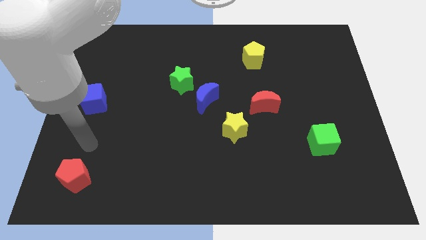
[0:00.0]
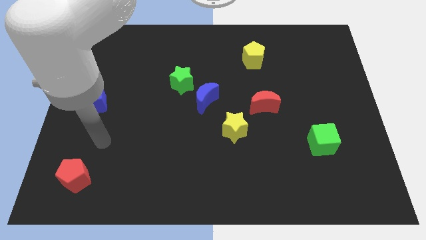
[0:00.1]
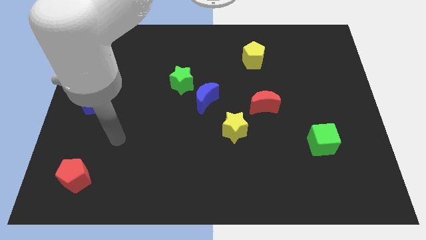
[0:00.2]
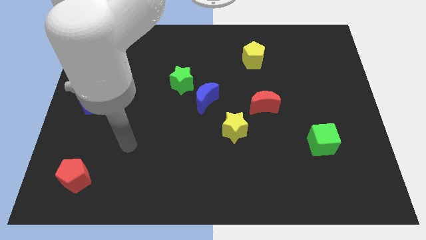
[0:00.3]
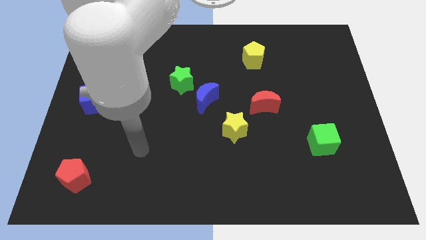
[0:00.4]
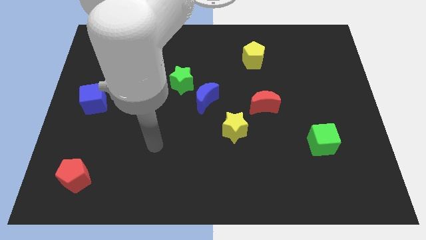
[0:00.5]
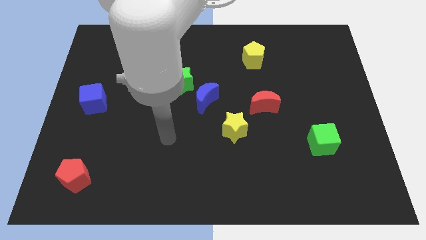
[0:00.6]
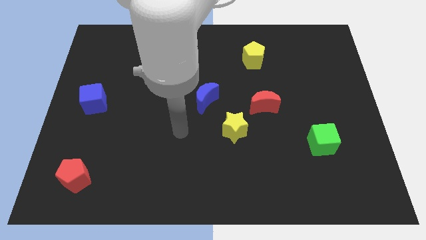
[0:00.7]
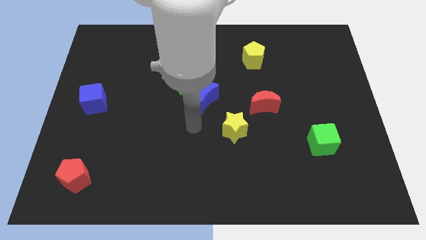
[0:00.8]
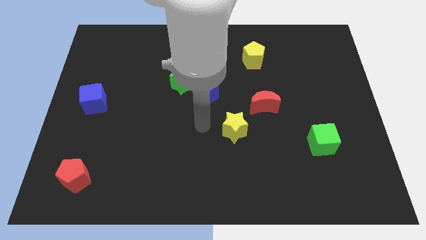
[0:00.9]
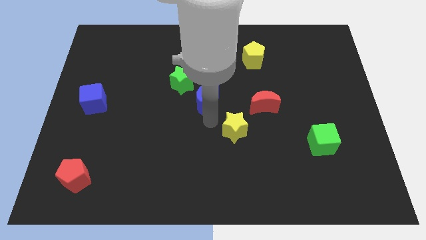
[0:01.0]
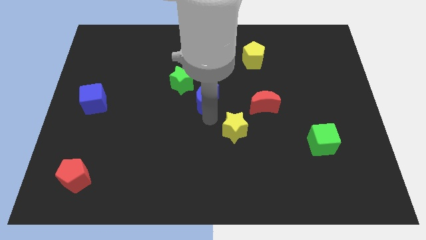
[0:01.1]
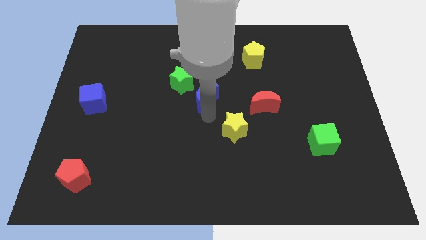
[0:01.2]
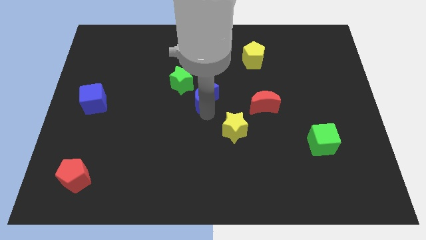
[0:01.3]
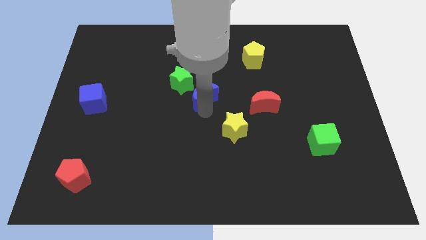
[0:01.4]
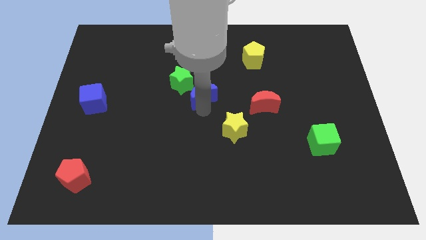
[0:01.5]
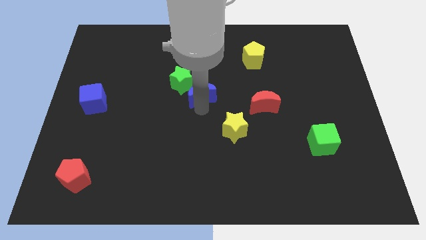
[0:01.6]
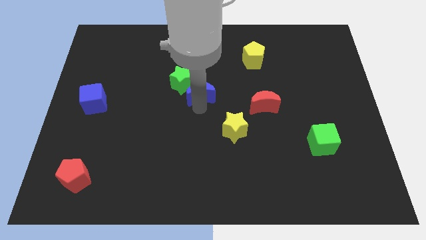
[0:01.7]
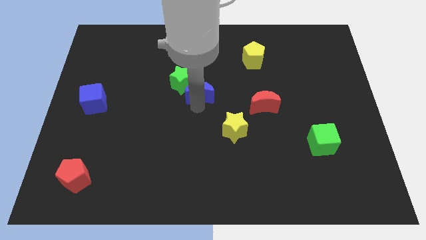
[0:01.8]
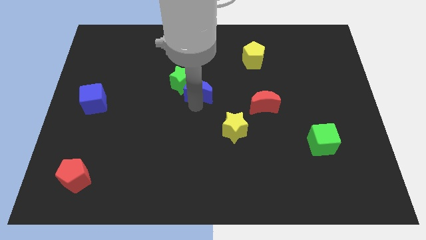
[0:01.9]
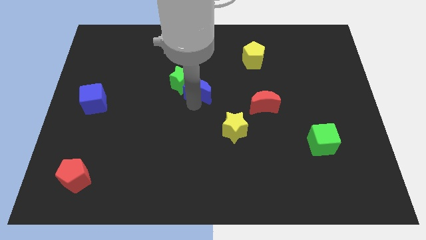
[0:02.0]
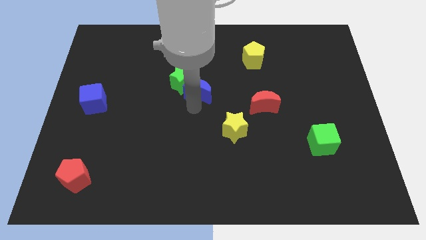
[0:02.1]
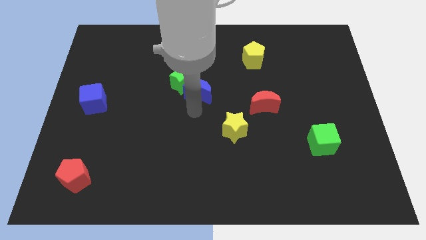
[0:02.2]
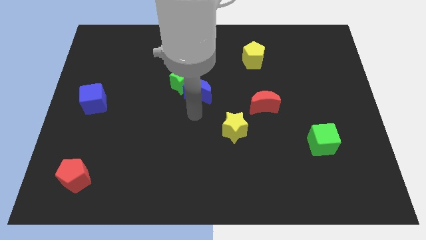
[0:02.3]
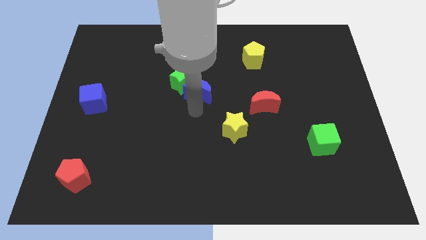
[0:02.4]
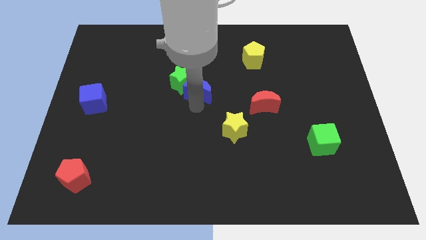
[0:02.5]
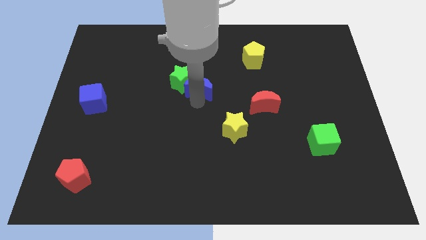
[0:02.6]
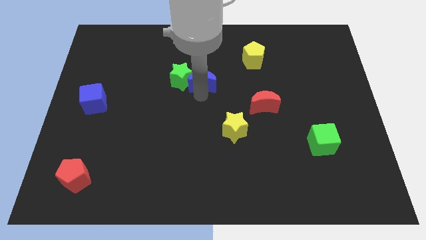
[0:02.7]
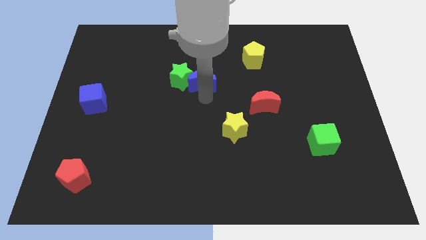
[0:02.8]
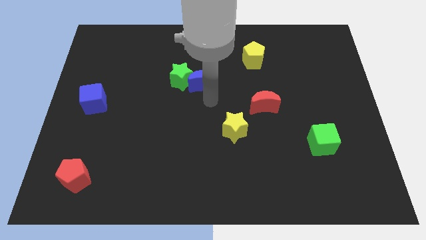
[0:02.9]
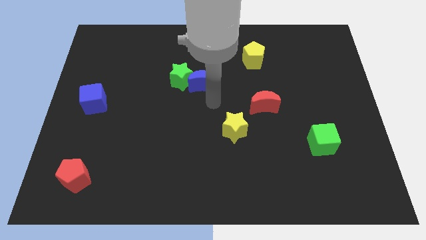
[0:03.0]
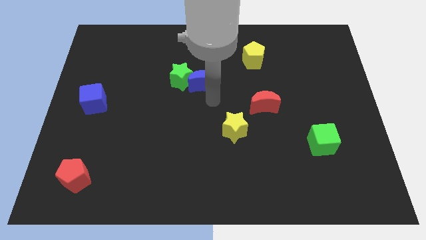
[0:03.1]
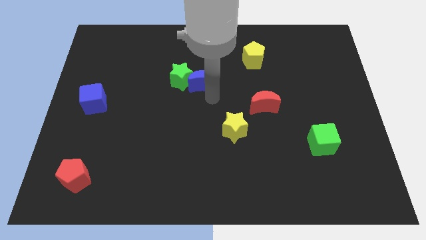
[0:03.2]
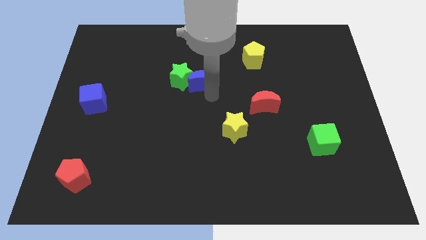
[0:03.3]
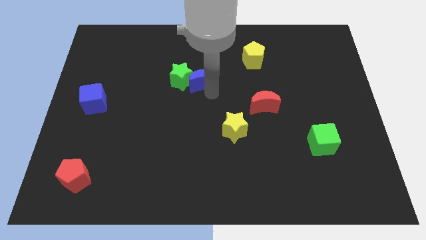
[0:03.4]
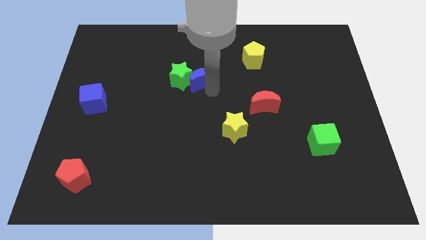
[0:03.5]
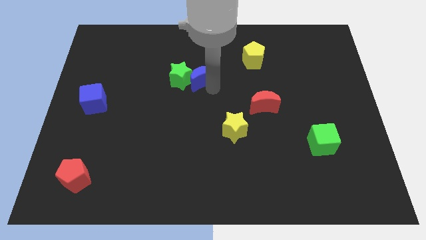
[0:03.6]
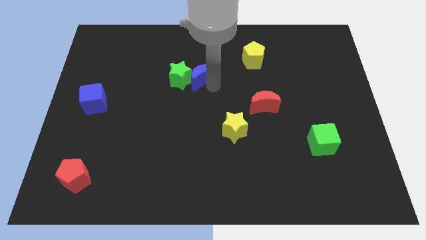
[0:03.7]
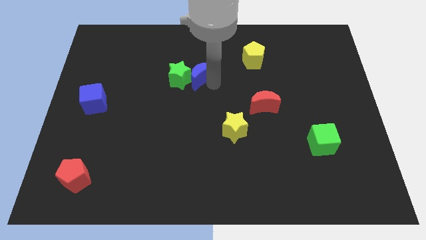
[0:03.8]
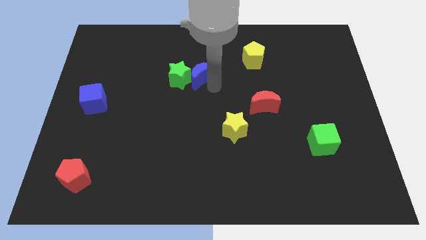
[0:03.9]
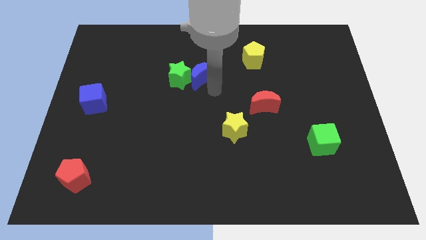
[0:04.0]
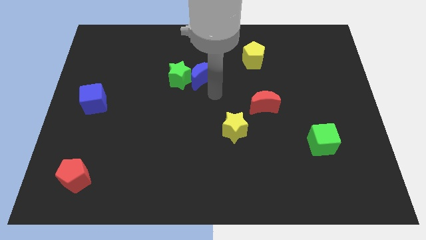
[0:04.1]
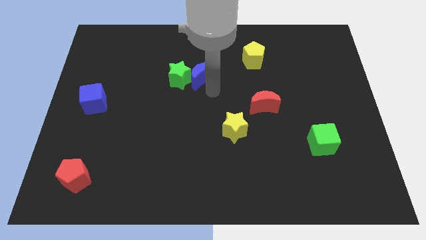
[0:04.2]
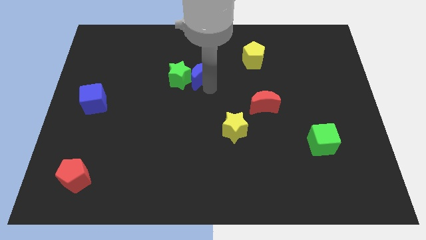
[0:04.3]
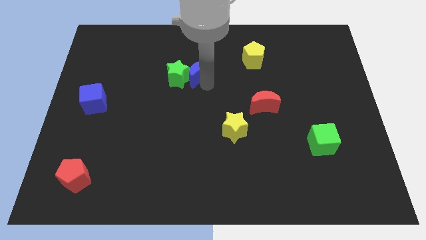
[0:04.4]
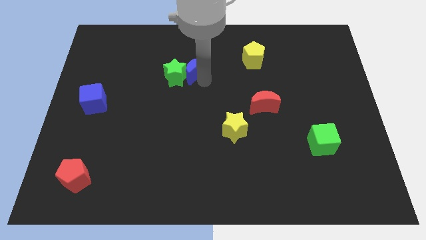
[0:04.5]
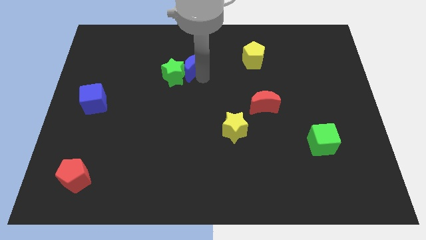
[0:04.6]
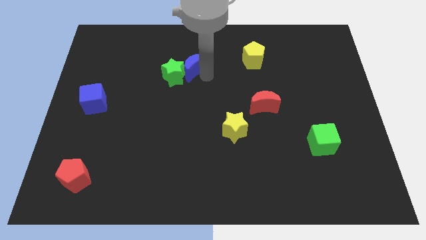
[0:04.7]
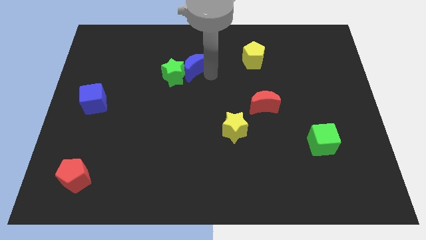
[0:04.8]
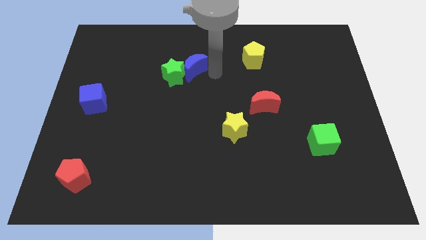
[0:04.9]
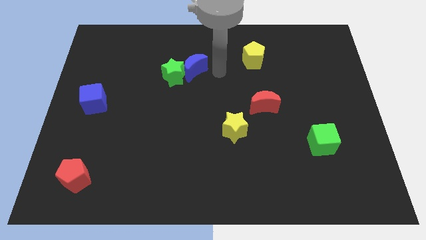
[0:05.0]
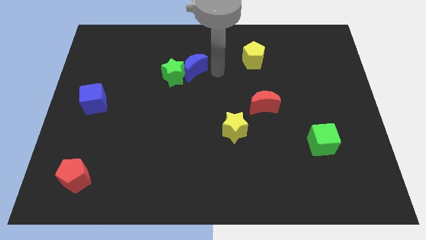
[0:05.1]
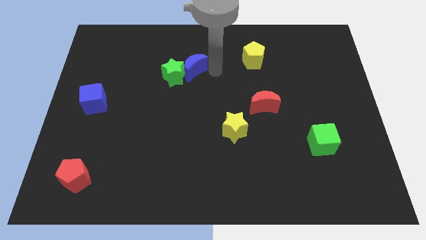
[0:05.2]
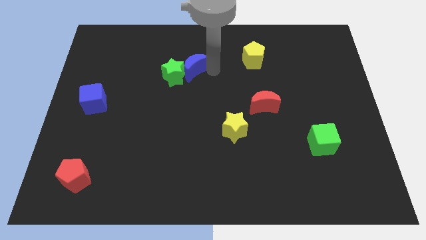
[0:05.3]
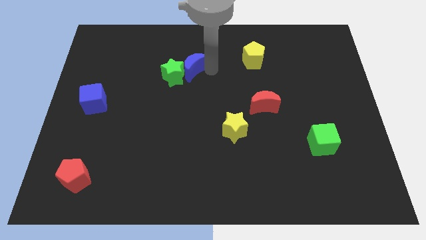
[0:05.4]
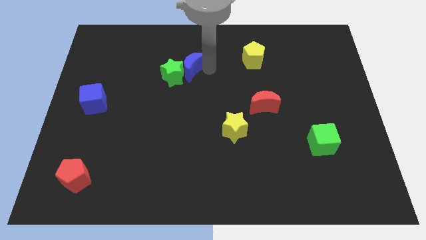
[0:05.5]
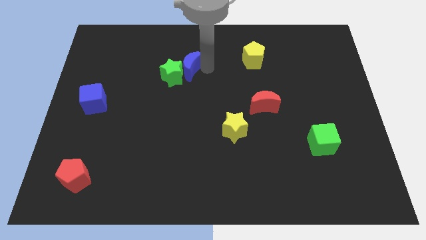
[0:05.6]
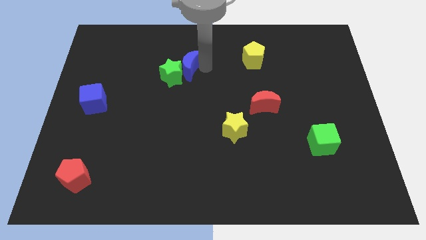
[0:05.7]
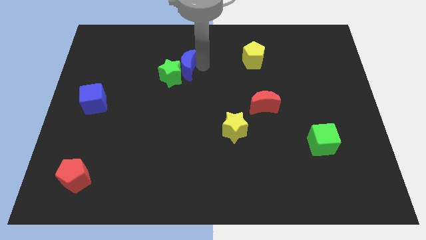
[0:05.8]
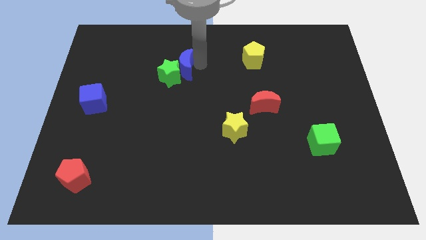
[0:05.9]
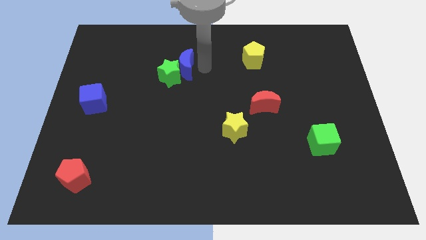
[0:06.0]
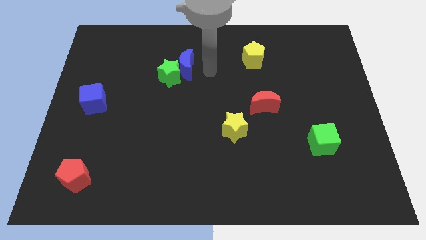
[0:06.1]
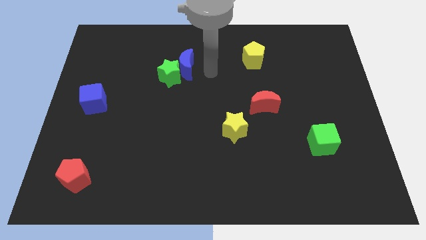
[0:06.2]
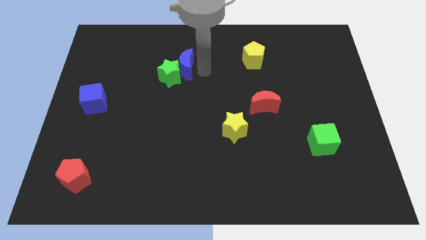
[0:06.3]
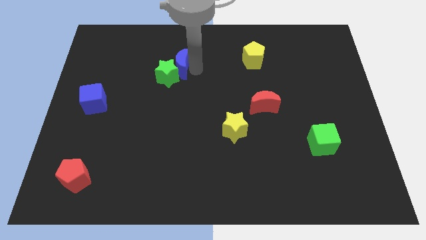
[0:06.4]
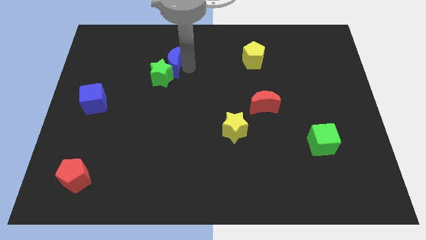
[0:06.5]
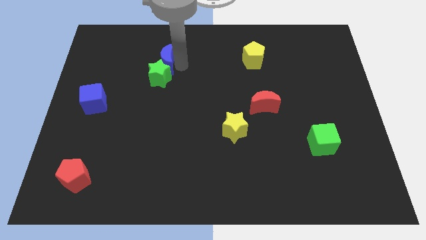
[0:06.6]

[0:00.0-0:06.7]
move the blue moon to the top left side of the green star
